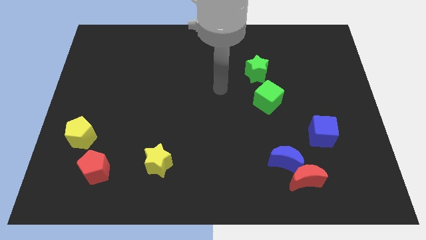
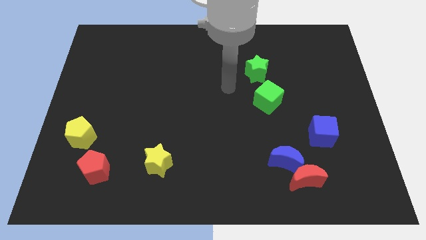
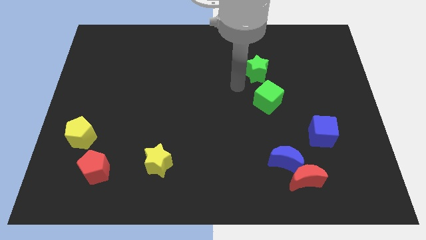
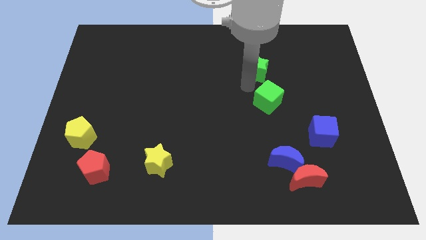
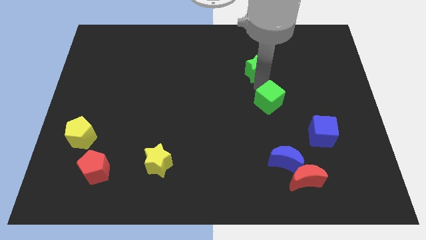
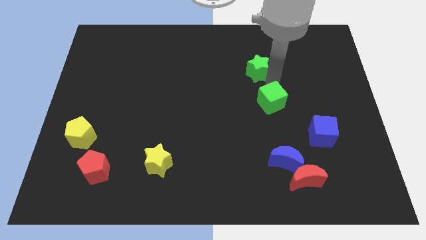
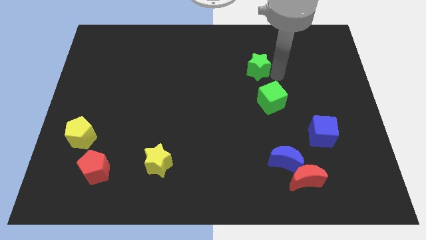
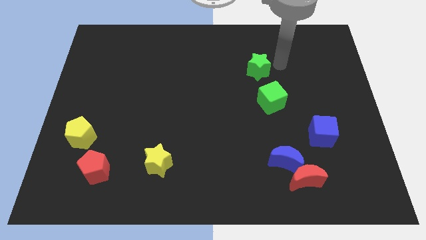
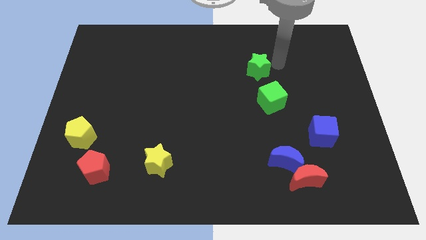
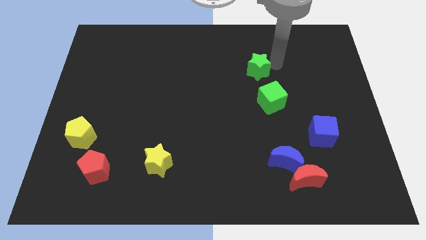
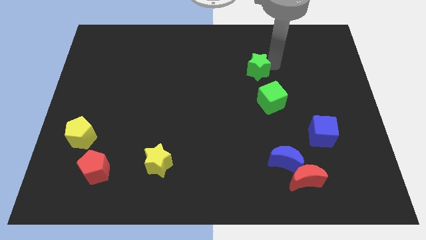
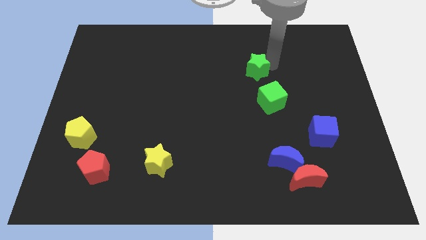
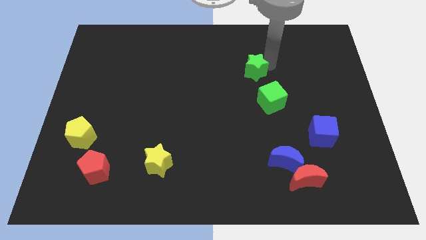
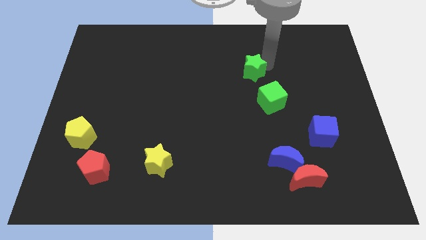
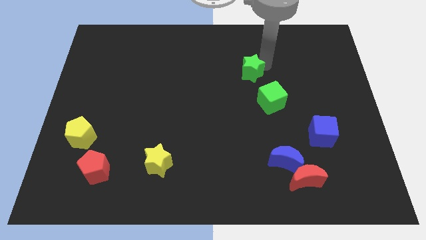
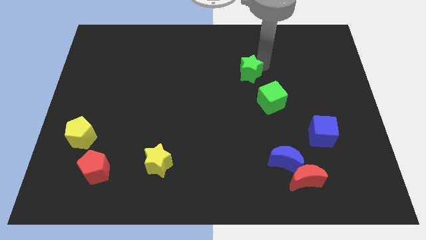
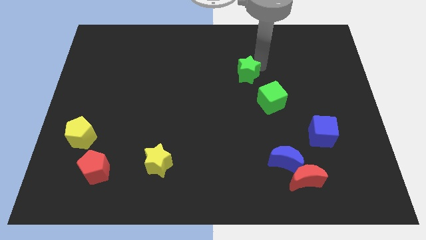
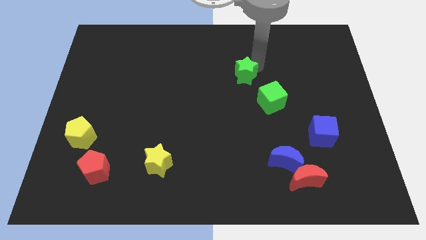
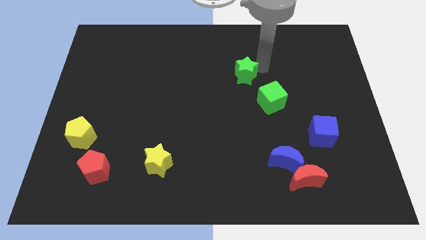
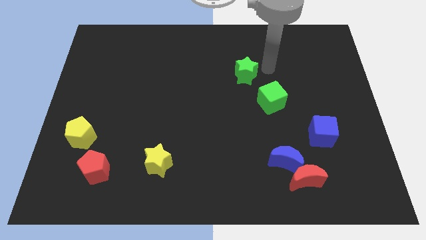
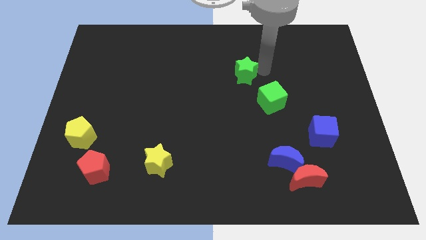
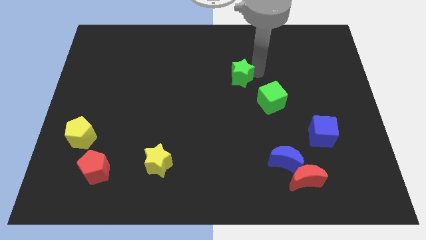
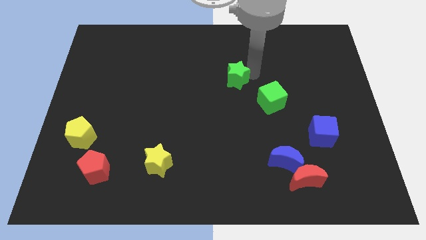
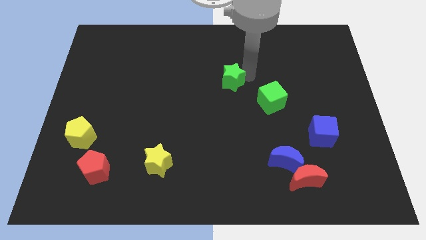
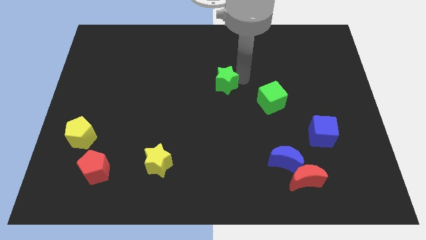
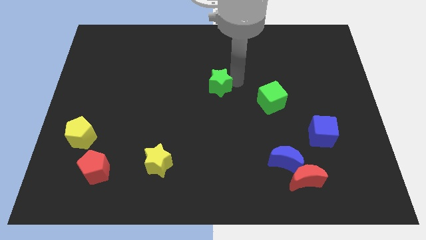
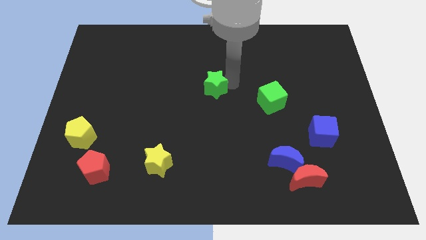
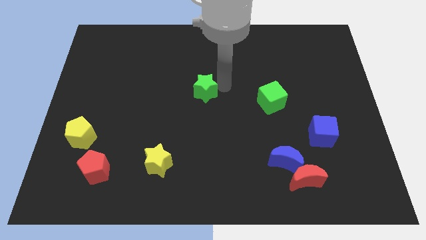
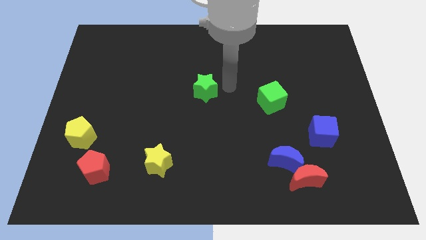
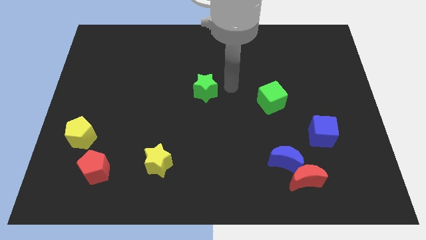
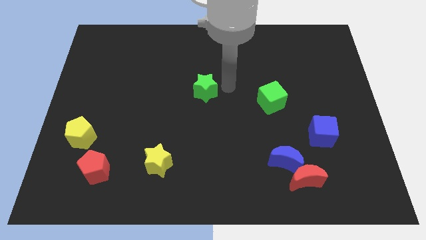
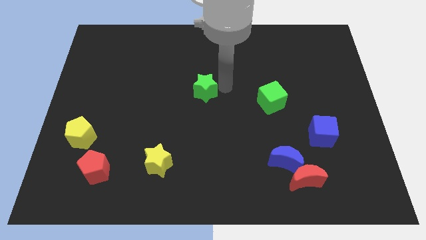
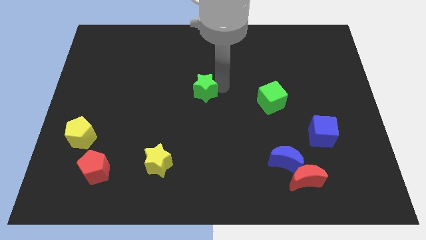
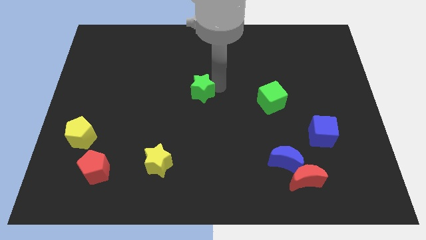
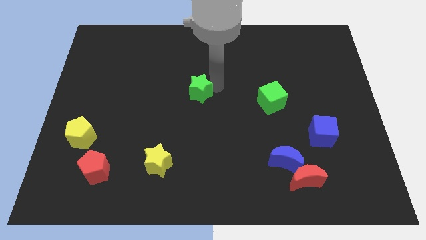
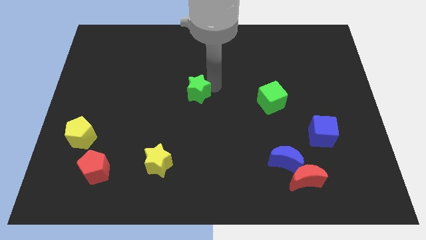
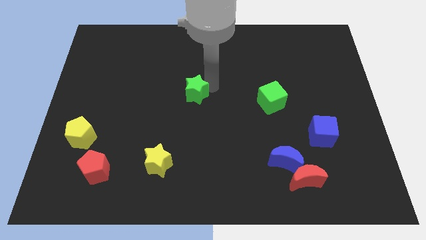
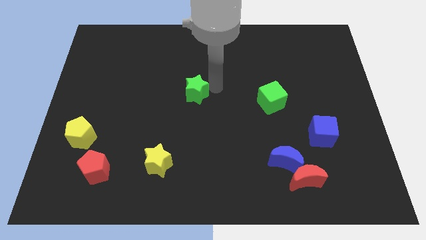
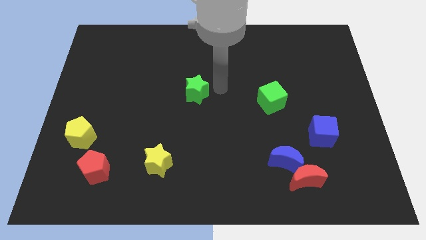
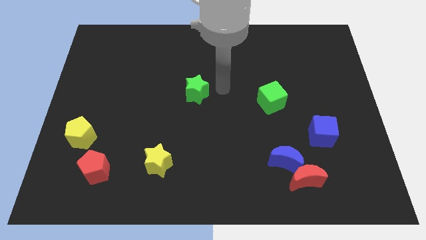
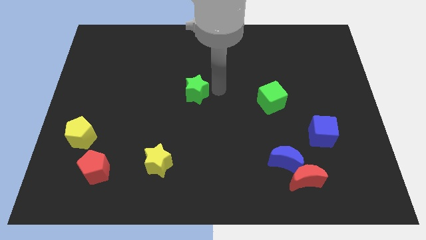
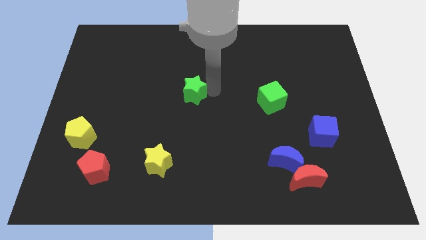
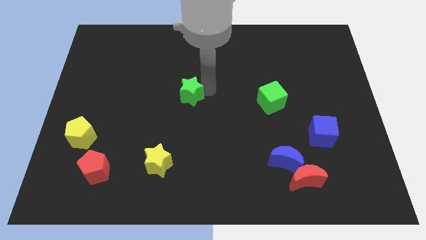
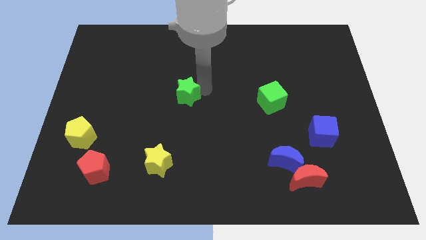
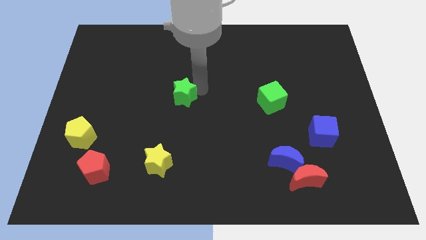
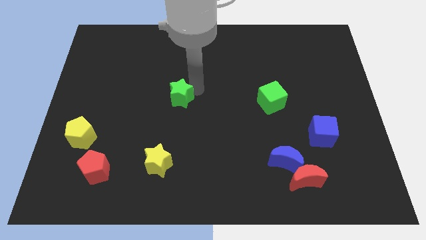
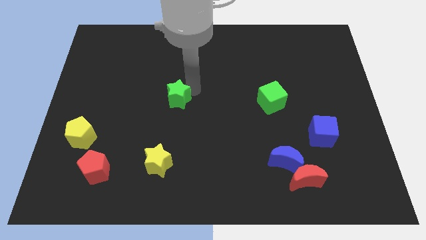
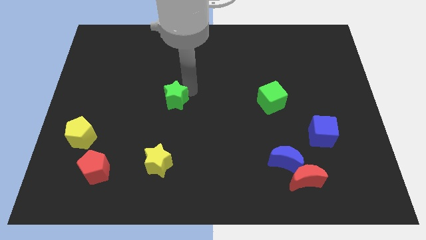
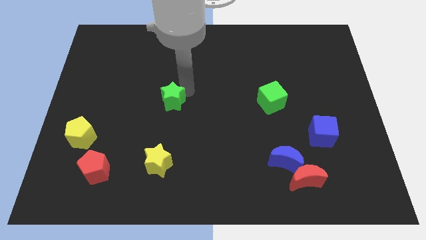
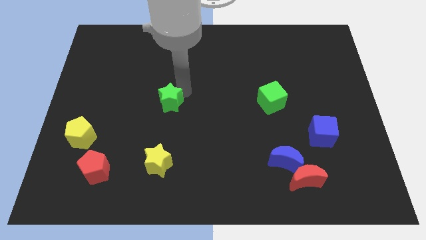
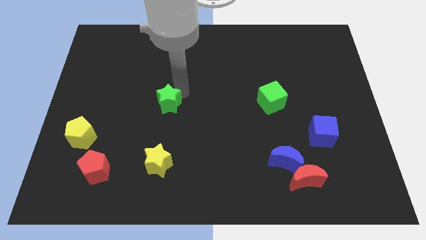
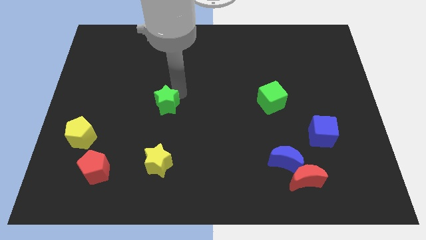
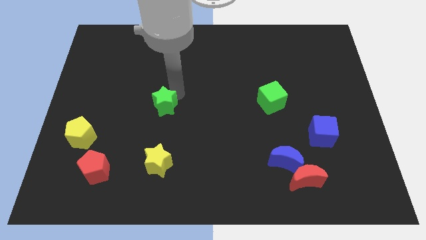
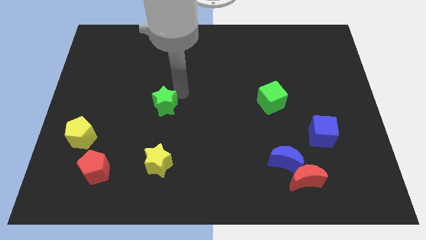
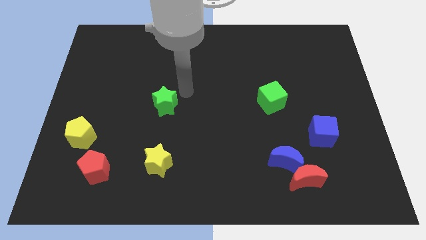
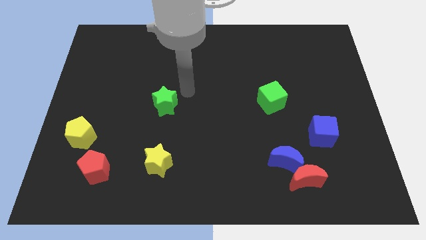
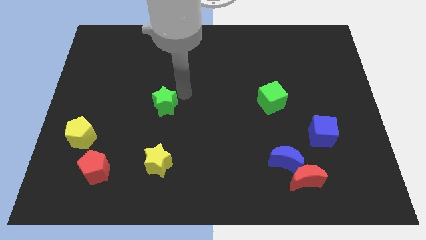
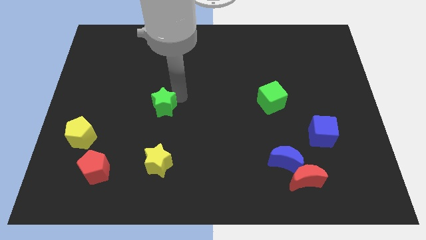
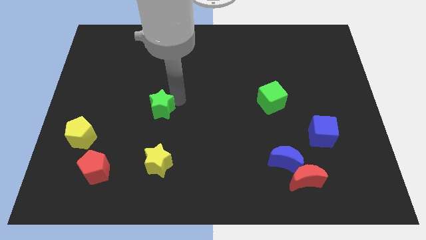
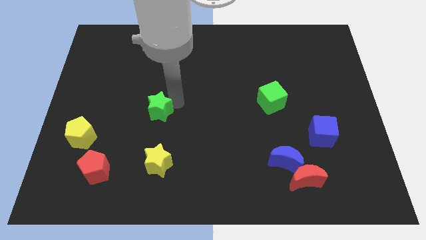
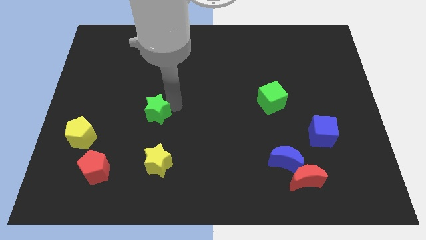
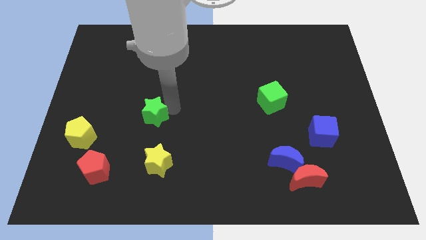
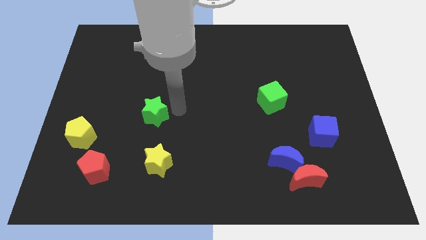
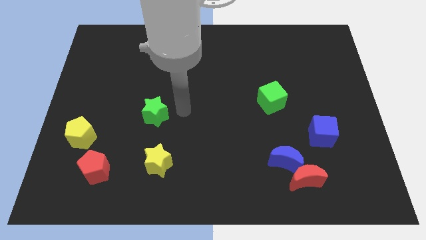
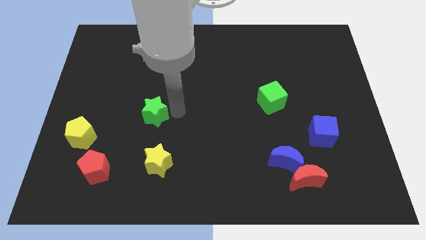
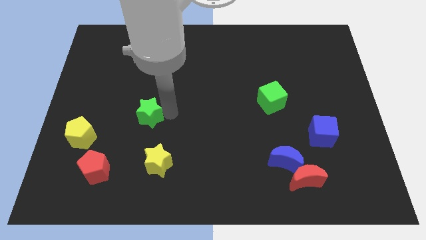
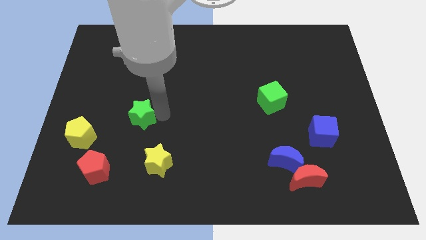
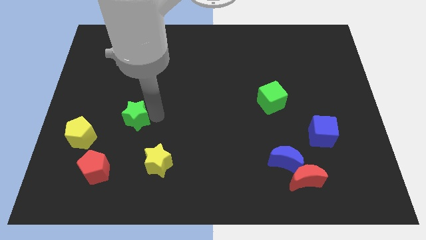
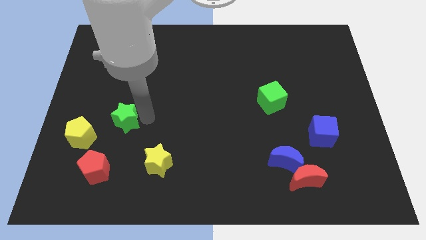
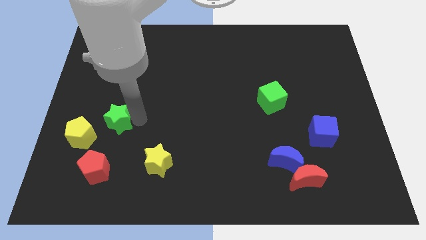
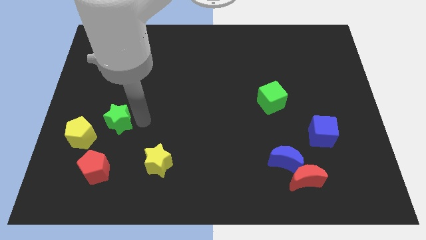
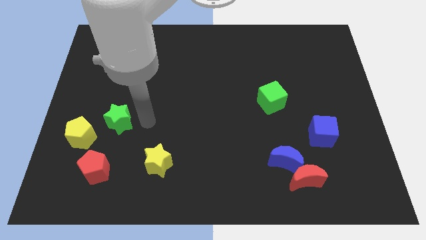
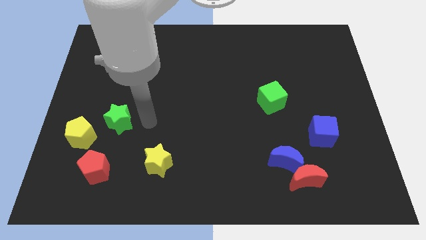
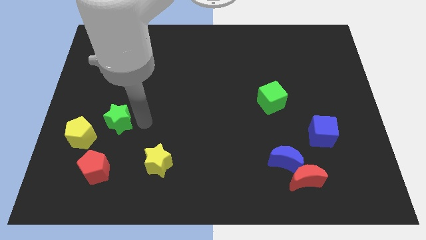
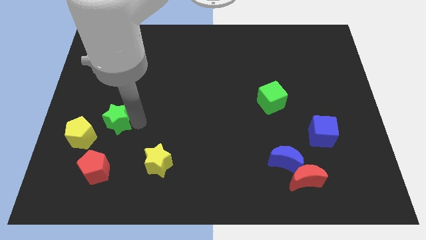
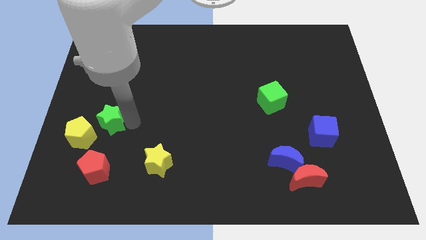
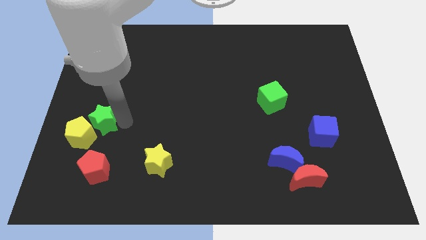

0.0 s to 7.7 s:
move the green star next to the yellow pentagon

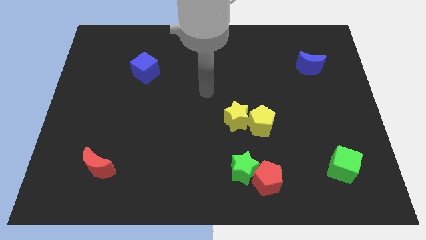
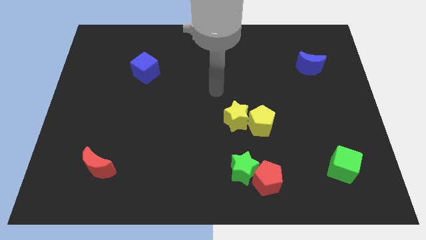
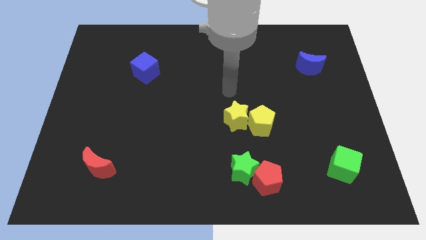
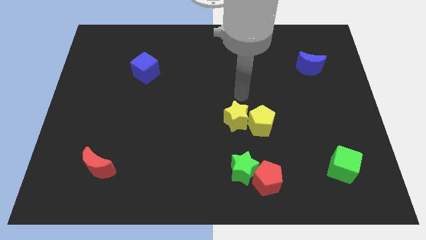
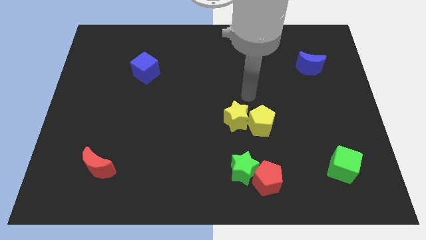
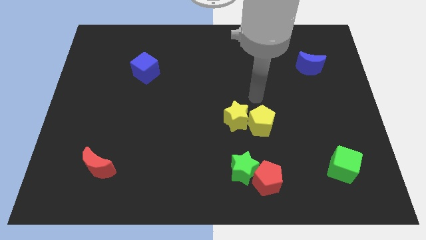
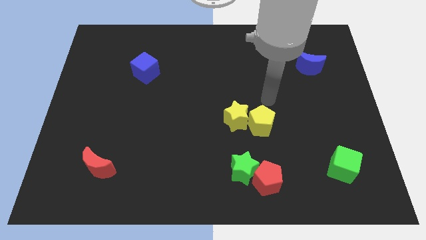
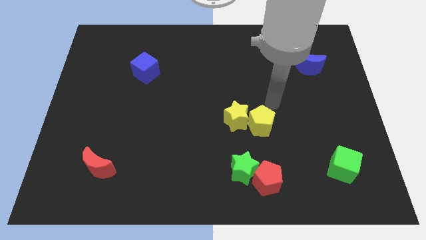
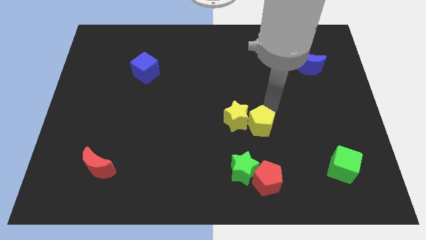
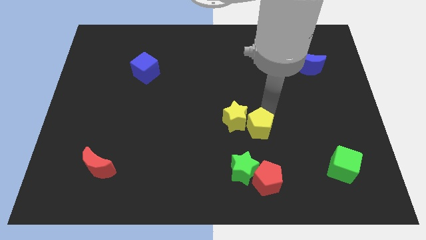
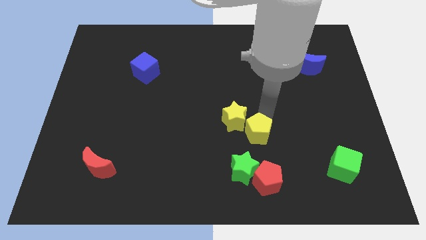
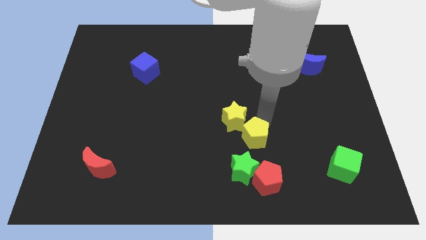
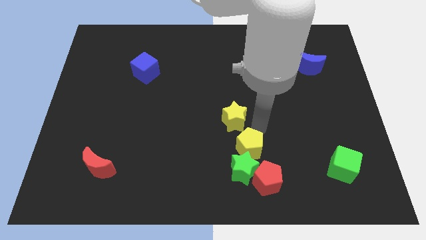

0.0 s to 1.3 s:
put the yellow pentagon next to the green star
